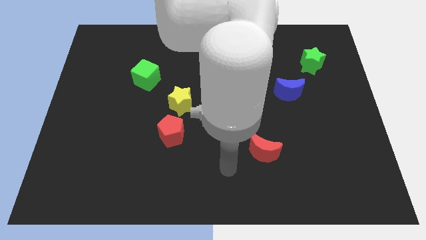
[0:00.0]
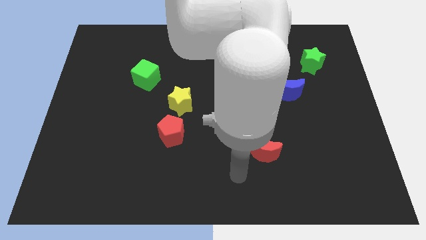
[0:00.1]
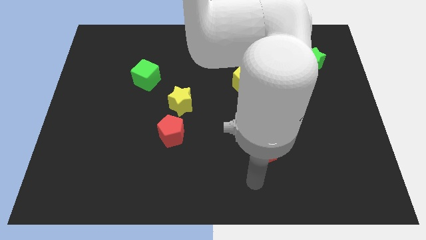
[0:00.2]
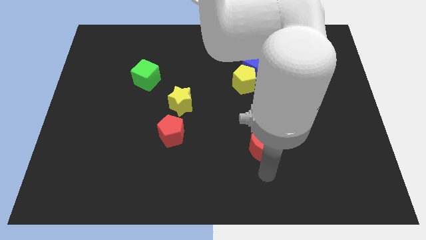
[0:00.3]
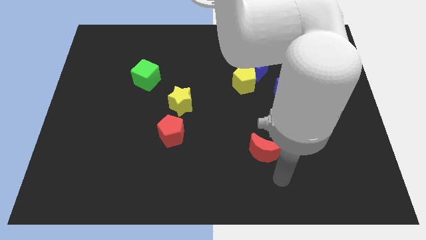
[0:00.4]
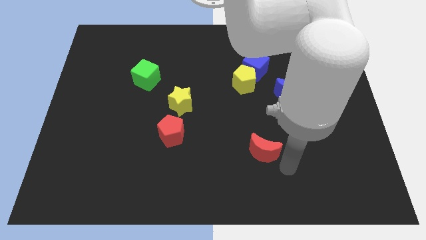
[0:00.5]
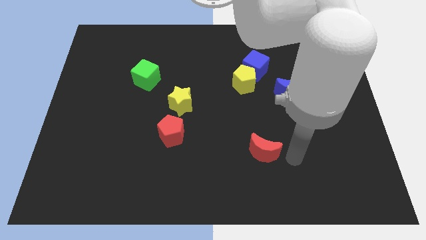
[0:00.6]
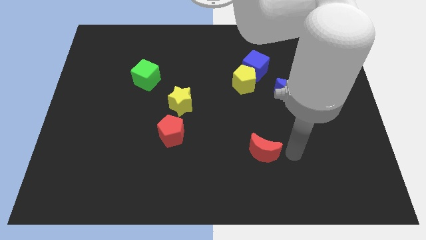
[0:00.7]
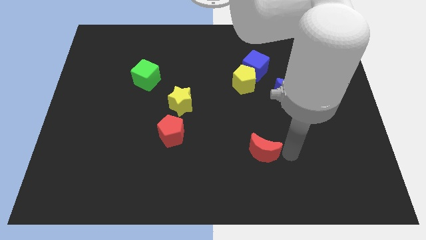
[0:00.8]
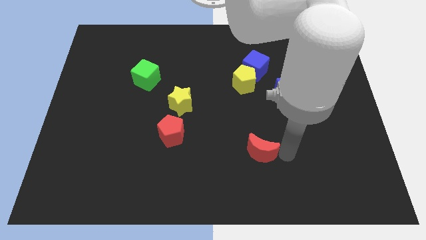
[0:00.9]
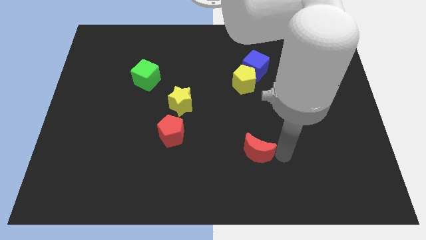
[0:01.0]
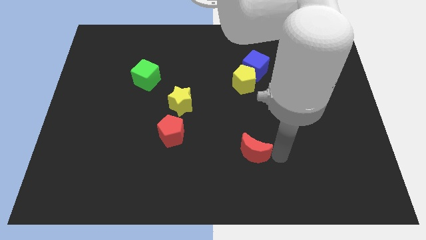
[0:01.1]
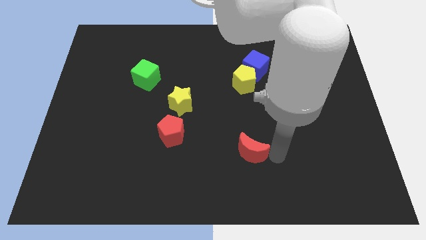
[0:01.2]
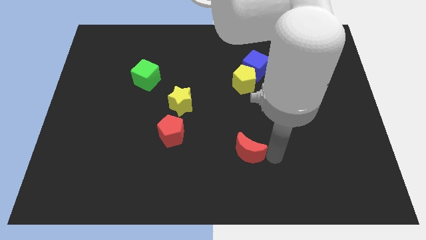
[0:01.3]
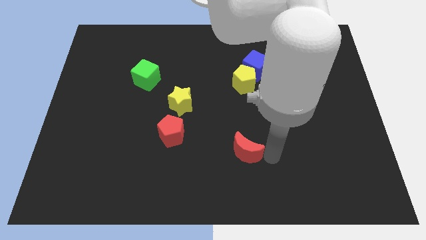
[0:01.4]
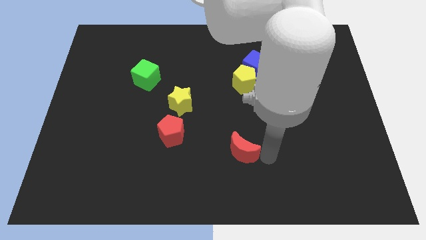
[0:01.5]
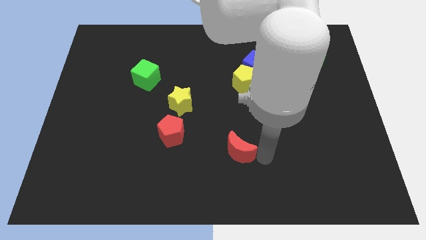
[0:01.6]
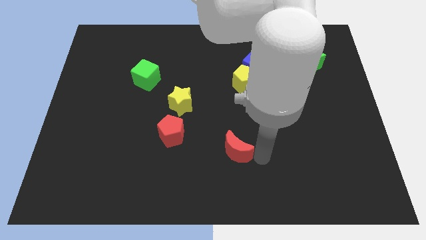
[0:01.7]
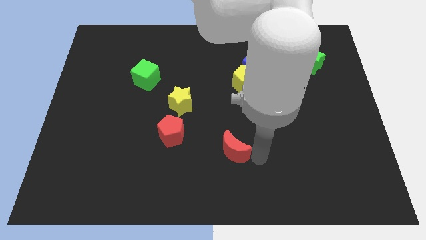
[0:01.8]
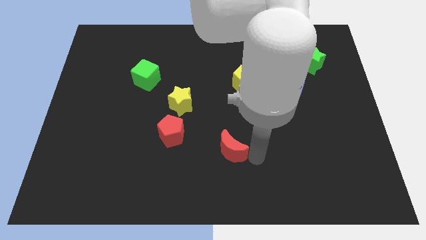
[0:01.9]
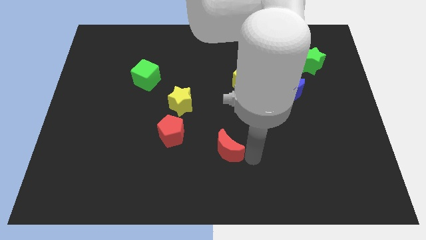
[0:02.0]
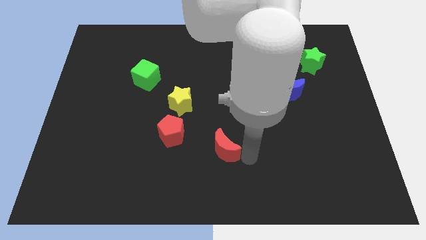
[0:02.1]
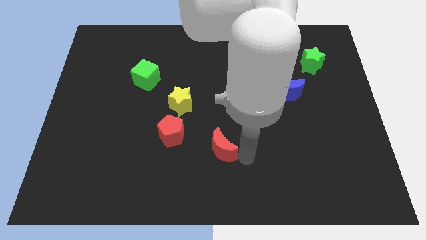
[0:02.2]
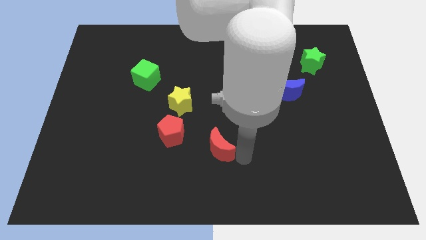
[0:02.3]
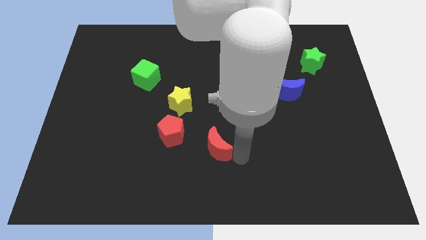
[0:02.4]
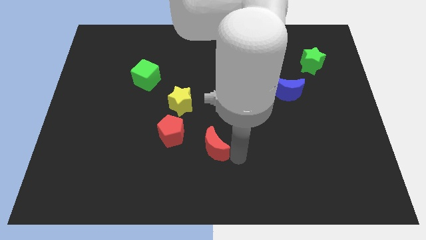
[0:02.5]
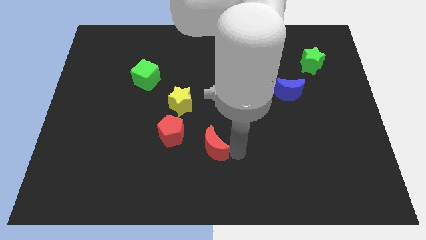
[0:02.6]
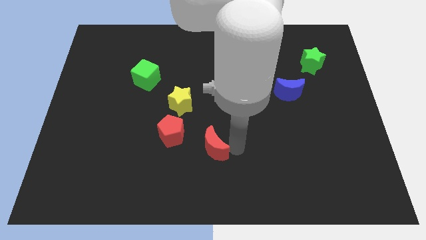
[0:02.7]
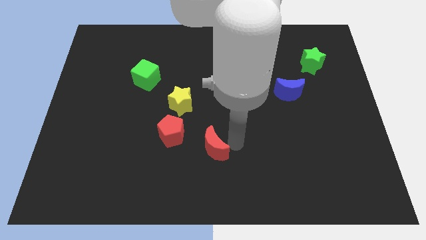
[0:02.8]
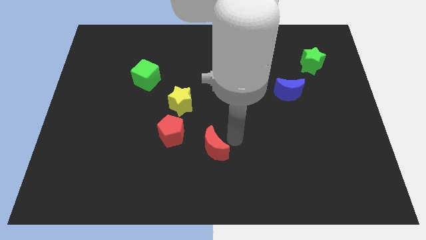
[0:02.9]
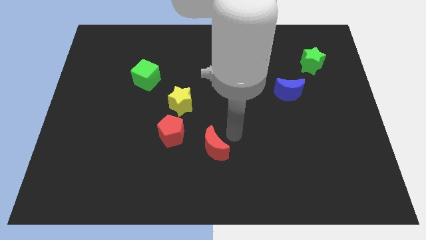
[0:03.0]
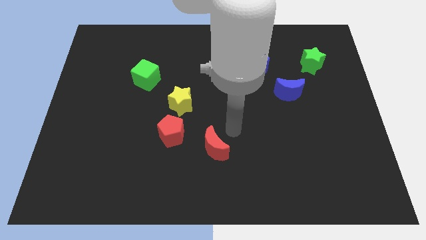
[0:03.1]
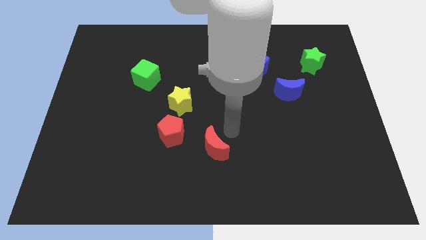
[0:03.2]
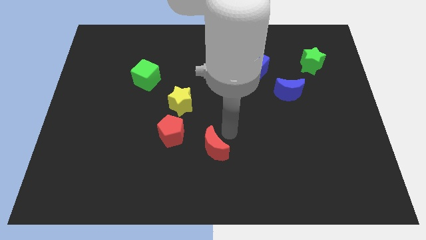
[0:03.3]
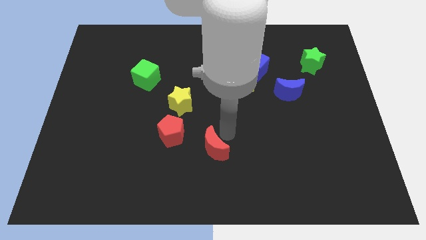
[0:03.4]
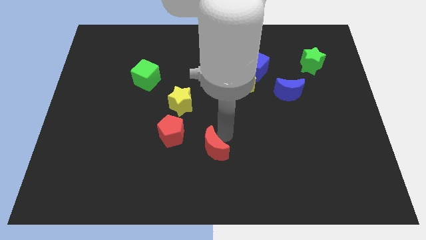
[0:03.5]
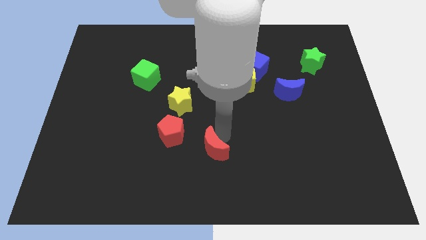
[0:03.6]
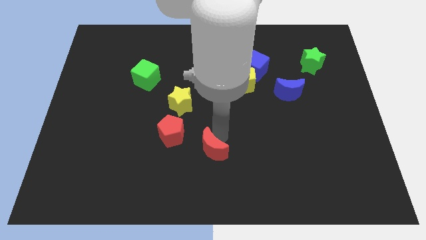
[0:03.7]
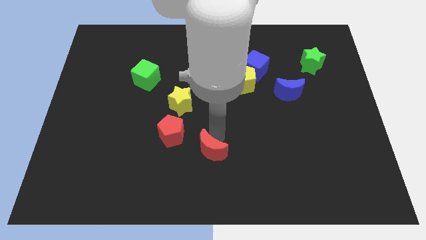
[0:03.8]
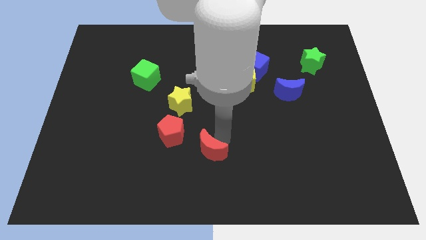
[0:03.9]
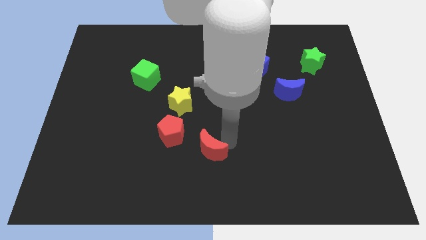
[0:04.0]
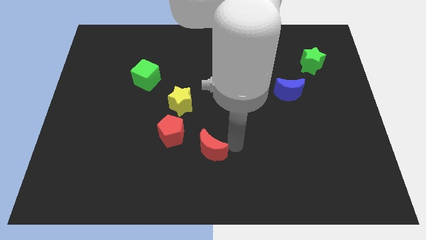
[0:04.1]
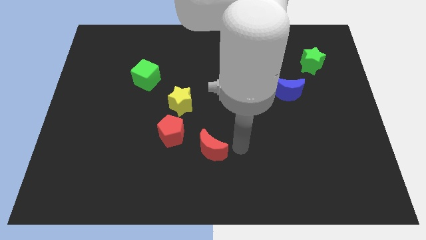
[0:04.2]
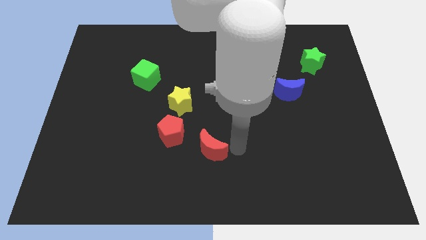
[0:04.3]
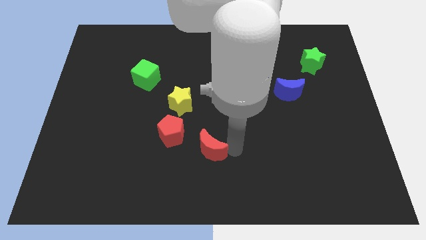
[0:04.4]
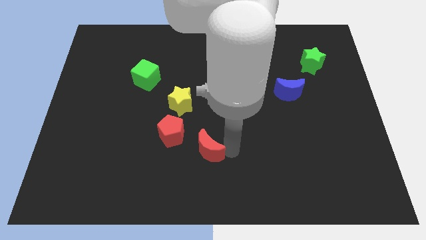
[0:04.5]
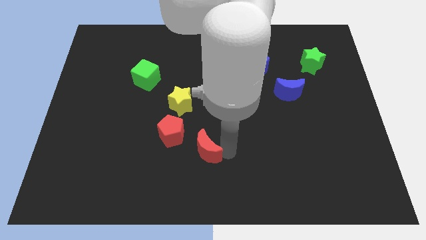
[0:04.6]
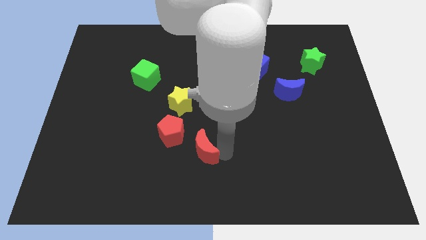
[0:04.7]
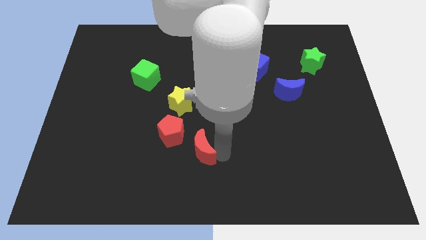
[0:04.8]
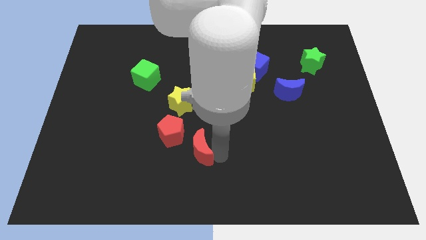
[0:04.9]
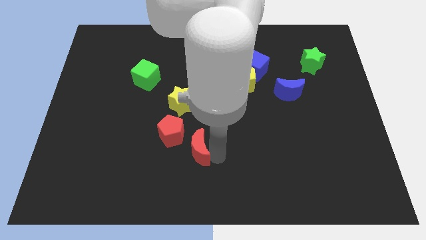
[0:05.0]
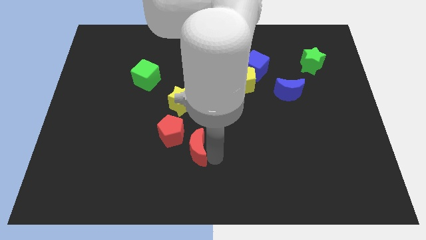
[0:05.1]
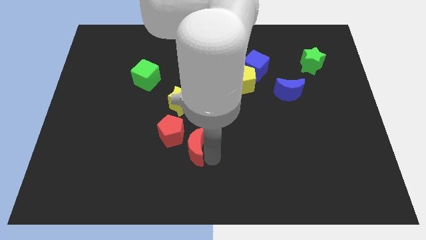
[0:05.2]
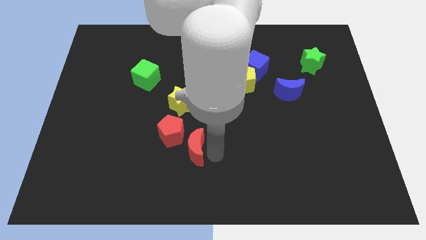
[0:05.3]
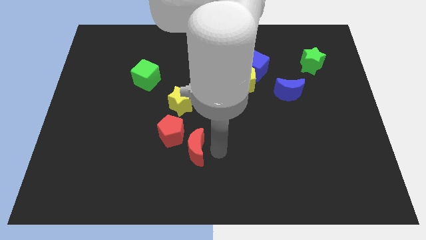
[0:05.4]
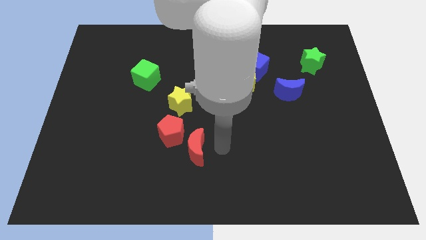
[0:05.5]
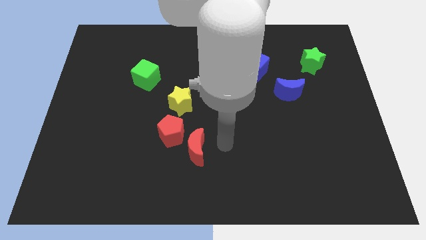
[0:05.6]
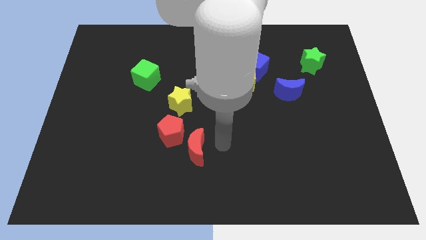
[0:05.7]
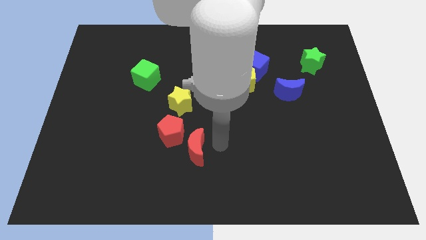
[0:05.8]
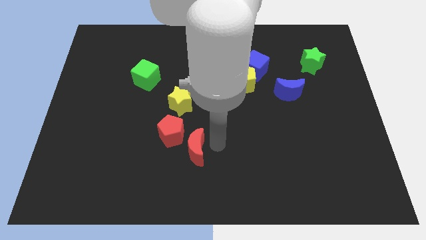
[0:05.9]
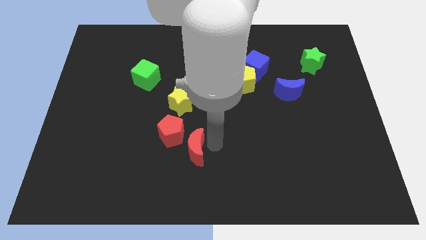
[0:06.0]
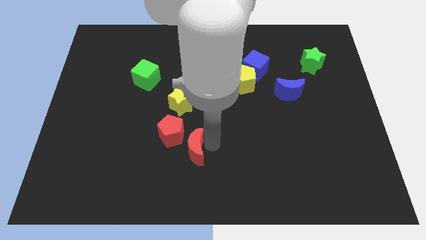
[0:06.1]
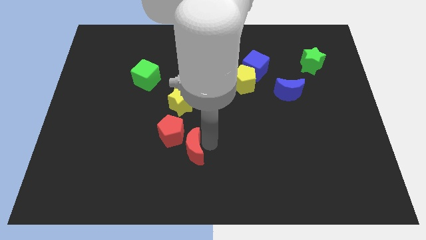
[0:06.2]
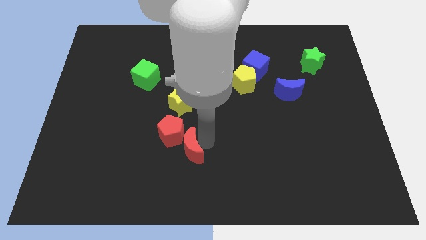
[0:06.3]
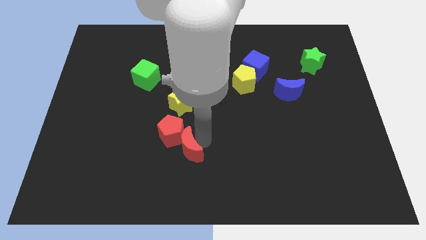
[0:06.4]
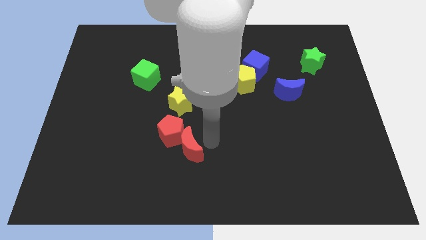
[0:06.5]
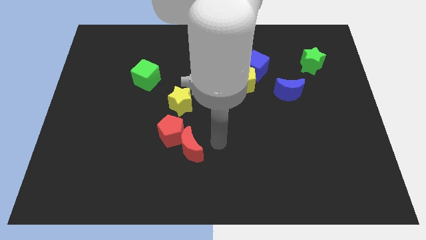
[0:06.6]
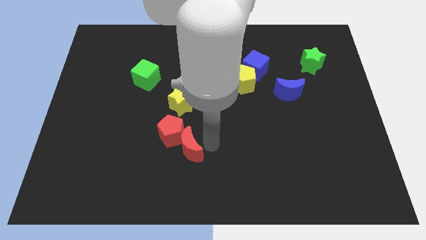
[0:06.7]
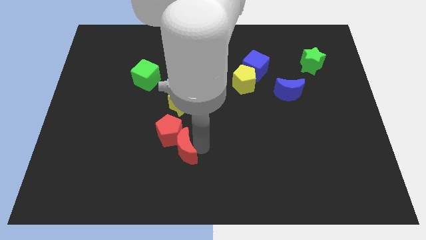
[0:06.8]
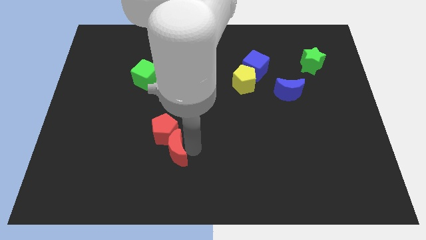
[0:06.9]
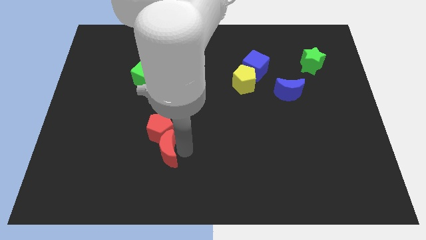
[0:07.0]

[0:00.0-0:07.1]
move the red moon to the left

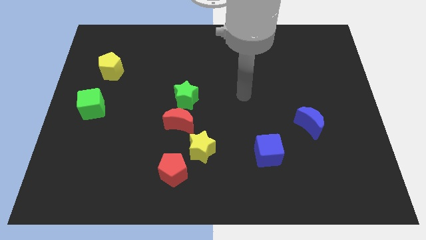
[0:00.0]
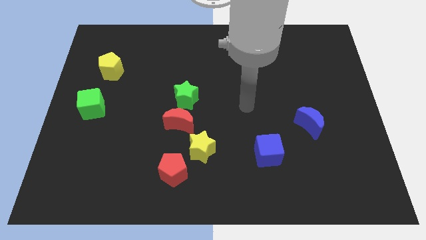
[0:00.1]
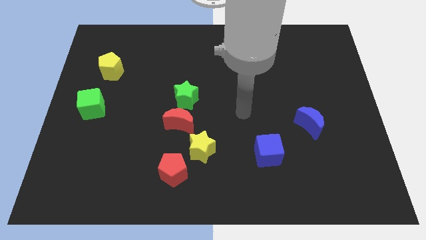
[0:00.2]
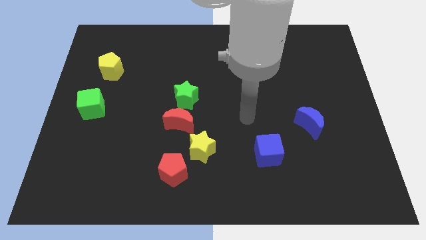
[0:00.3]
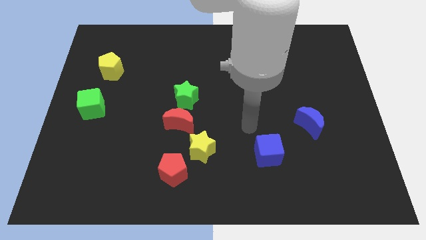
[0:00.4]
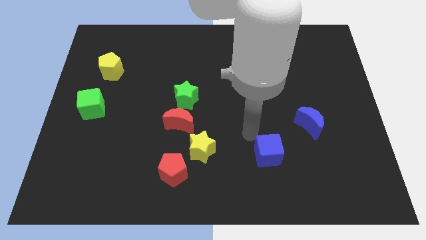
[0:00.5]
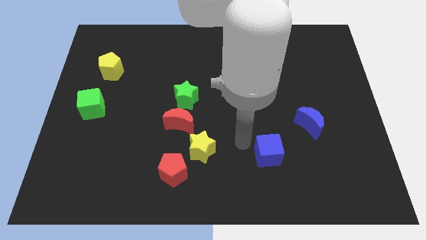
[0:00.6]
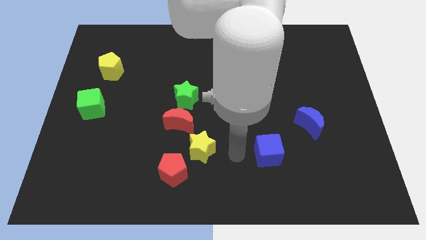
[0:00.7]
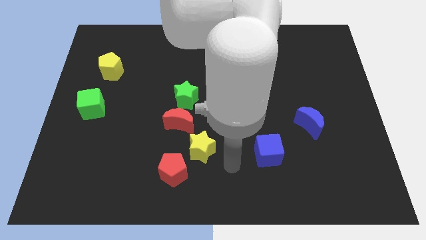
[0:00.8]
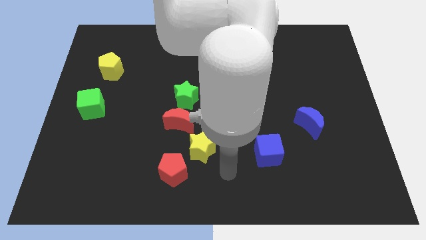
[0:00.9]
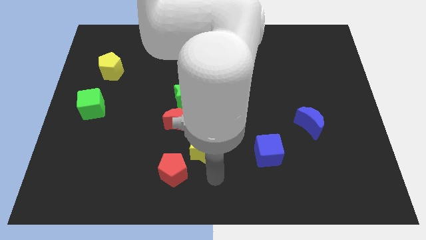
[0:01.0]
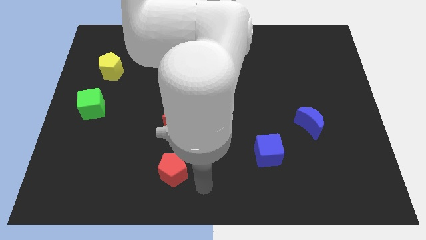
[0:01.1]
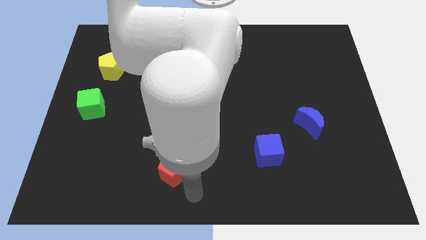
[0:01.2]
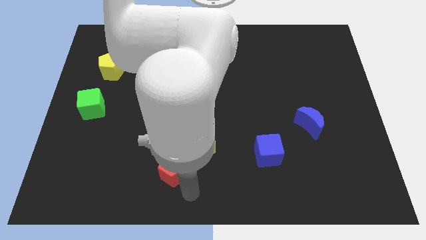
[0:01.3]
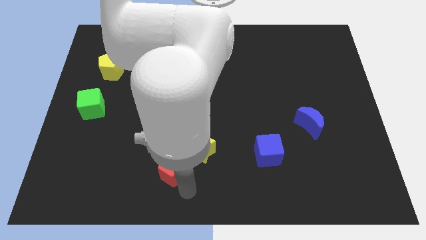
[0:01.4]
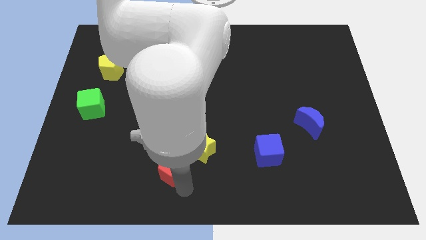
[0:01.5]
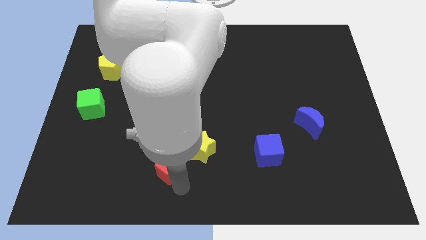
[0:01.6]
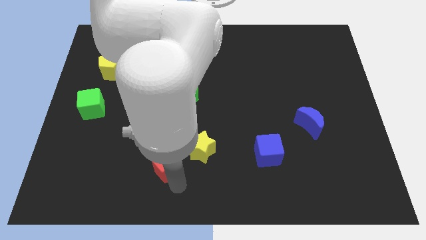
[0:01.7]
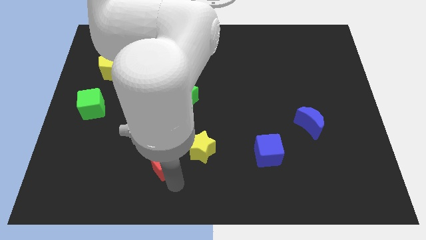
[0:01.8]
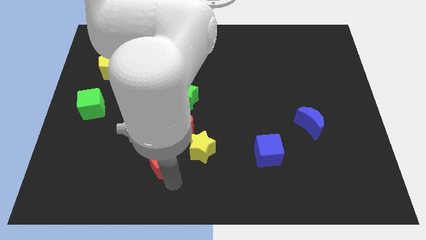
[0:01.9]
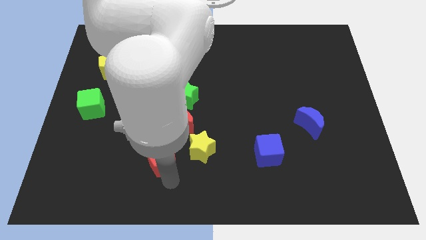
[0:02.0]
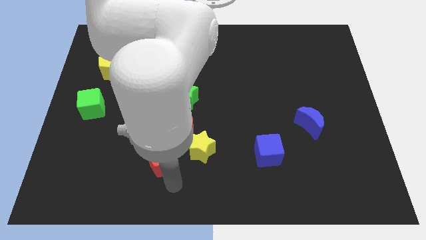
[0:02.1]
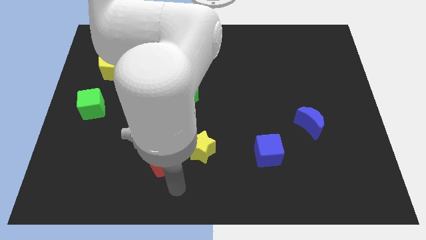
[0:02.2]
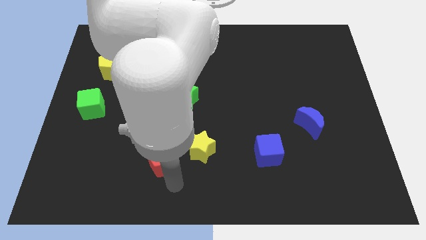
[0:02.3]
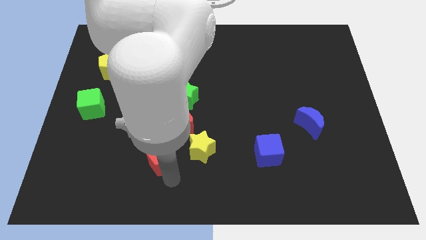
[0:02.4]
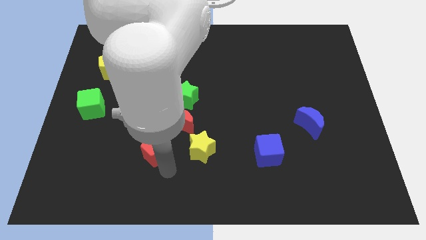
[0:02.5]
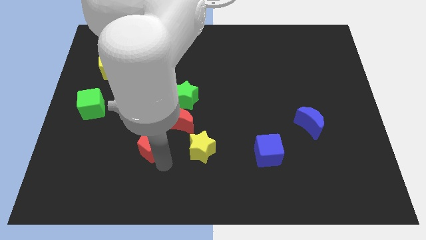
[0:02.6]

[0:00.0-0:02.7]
move the red pentagon upwards and then to the left somewhat
